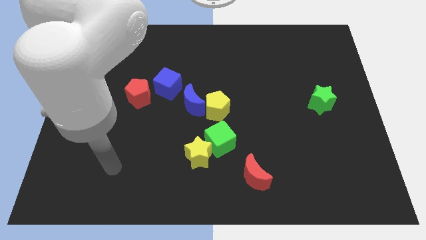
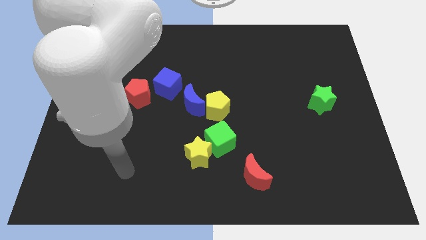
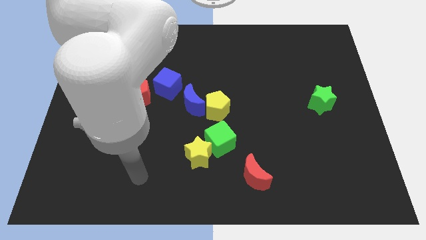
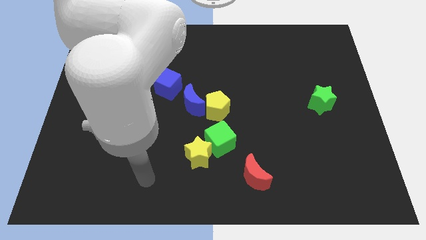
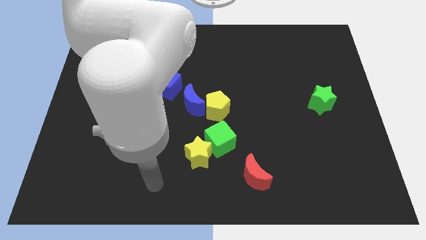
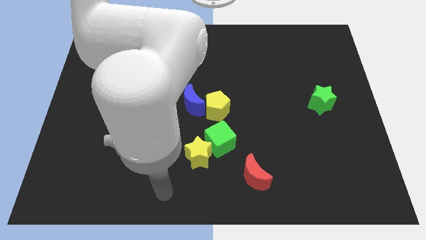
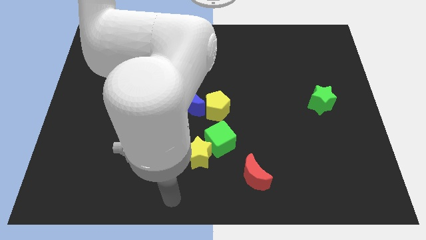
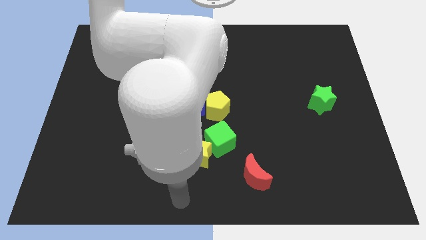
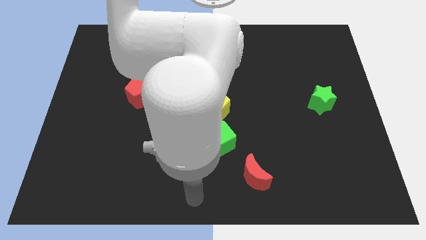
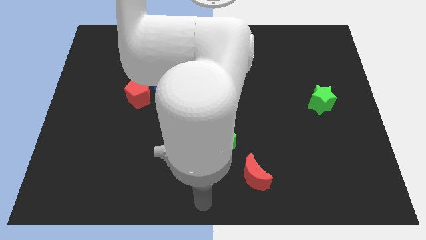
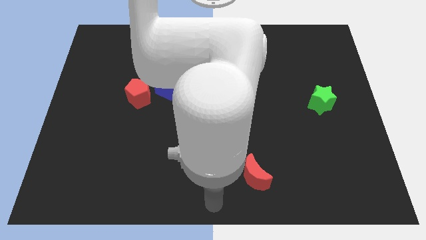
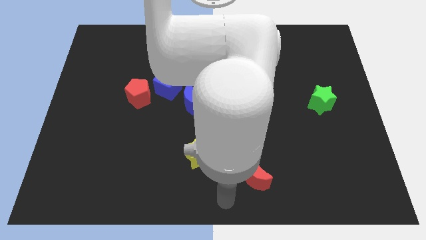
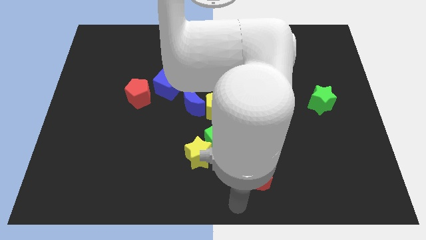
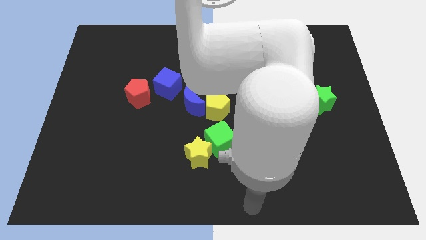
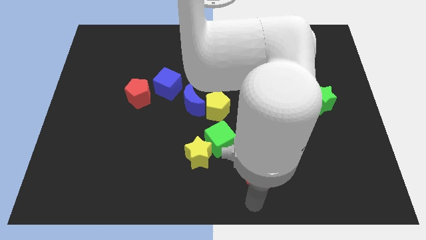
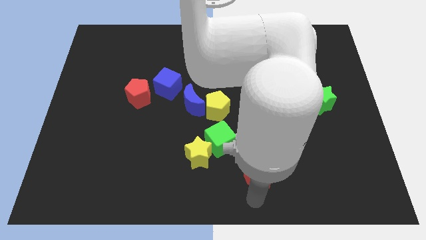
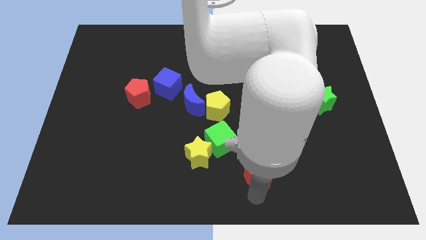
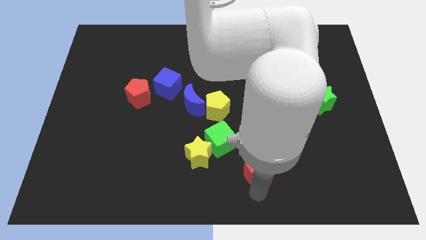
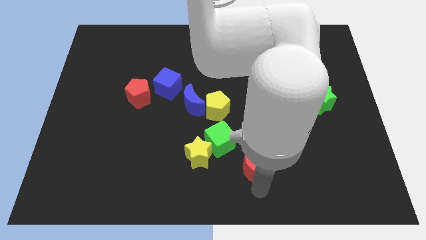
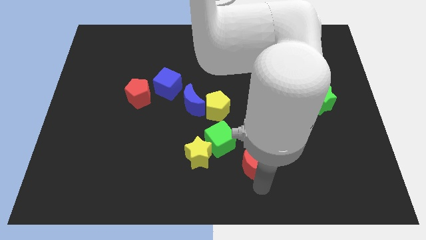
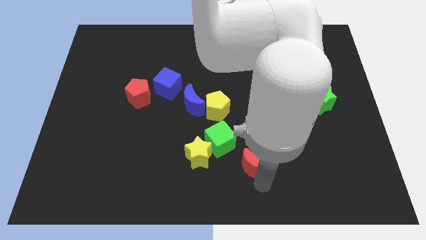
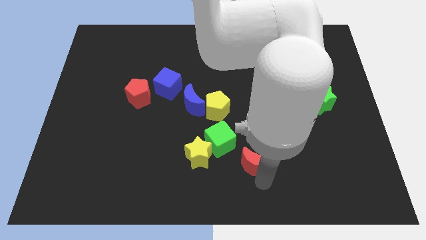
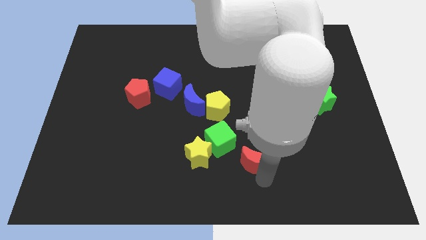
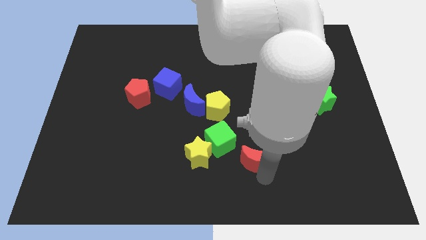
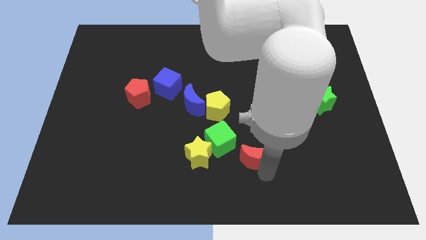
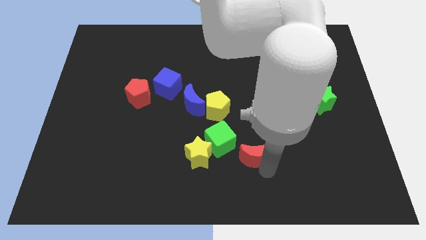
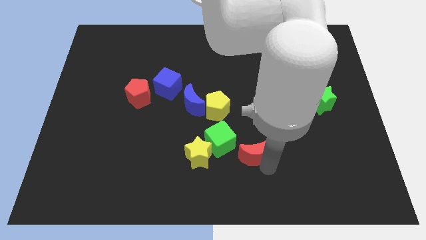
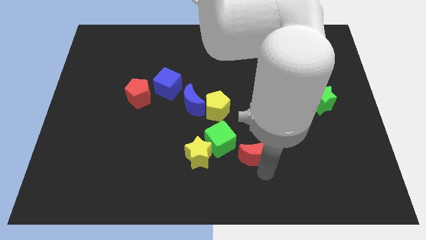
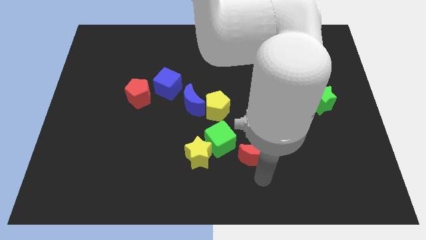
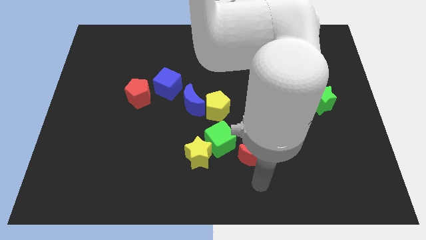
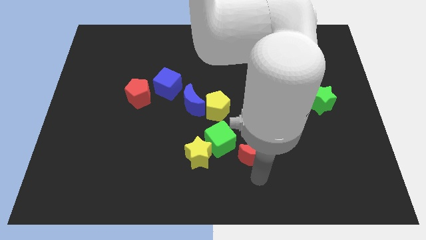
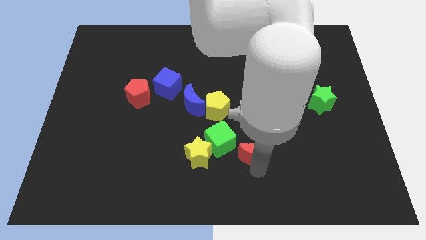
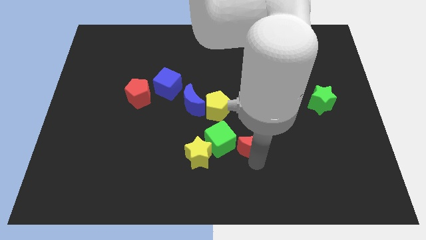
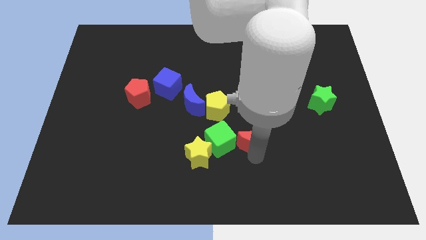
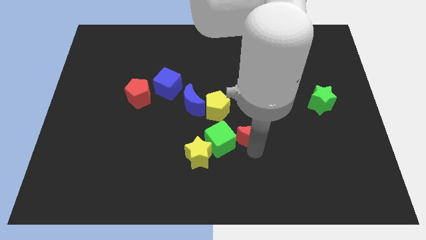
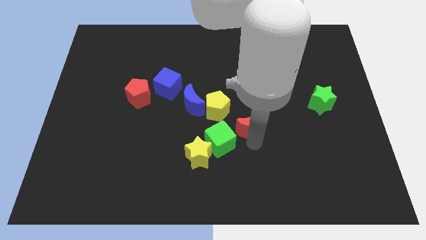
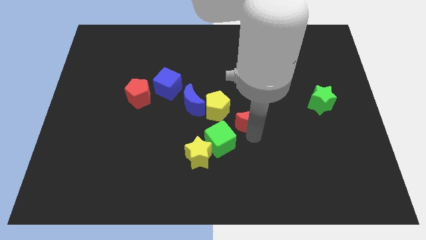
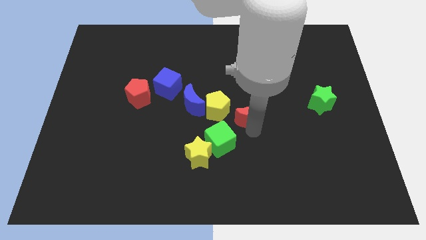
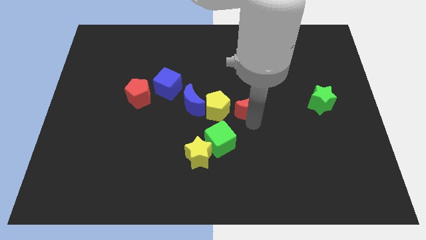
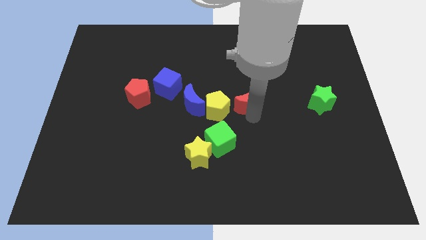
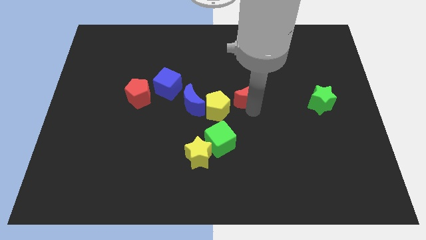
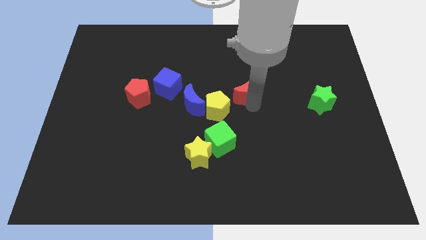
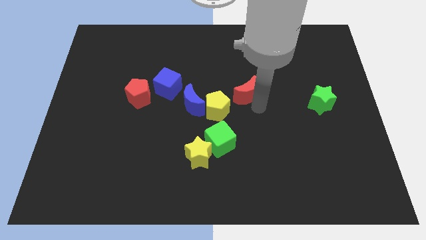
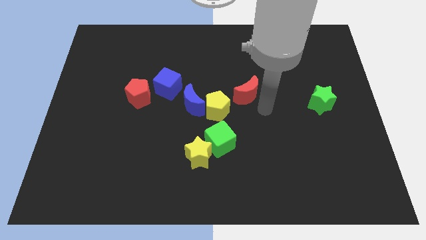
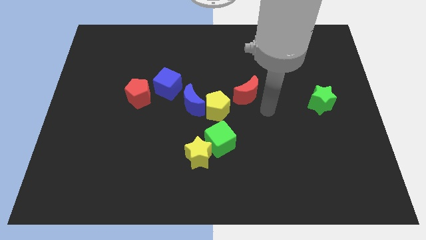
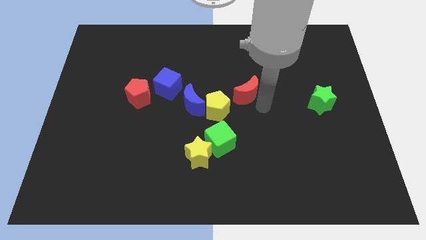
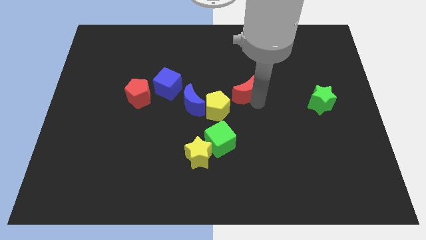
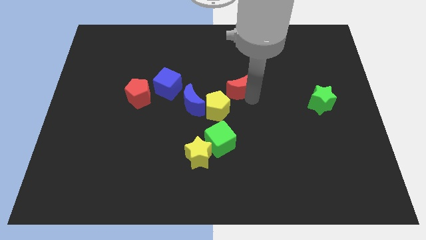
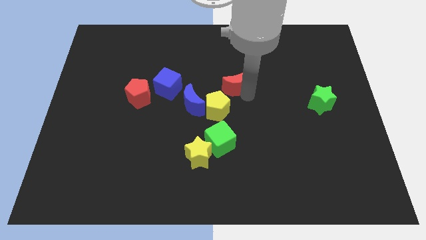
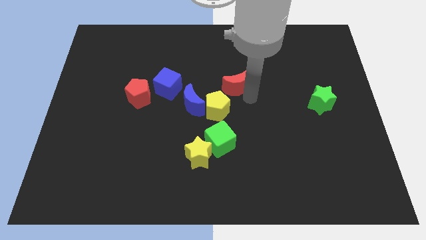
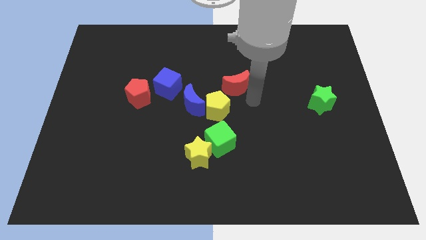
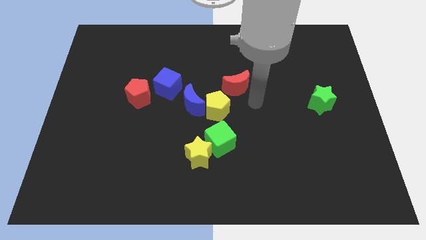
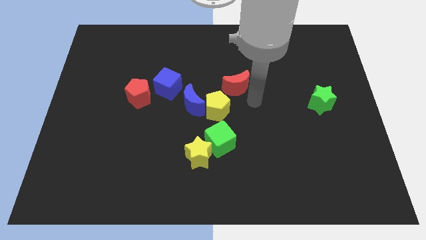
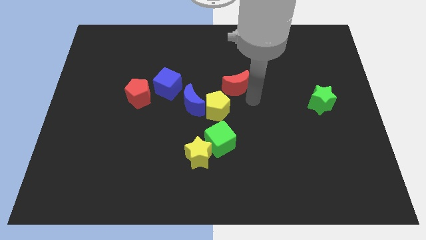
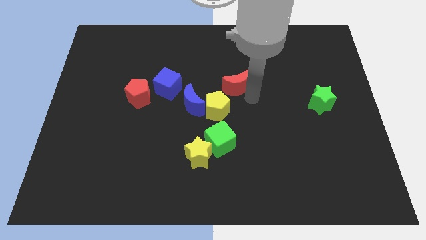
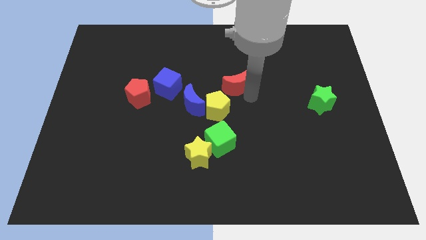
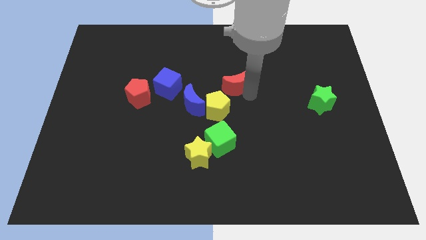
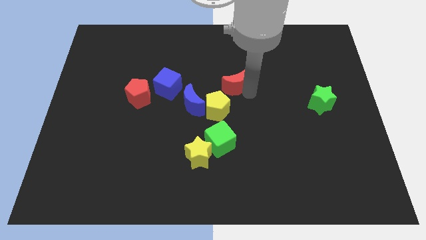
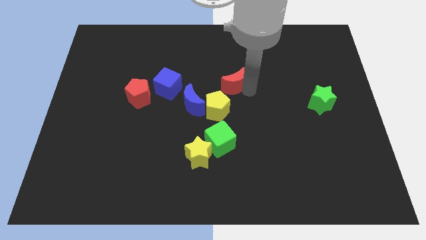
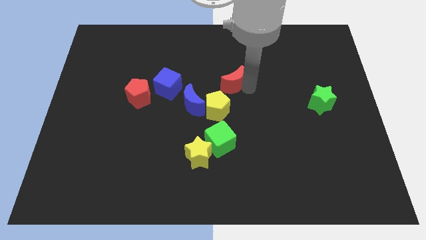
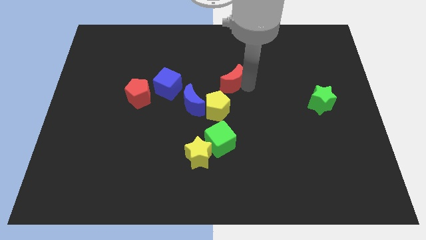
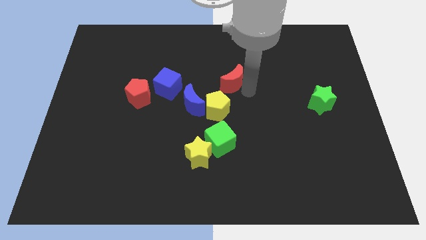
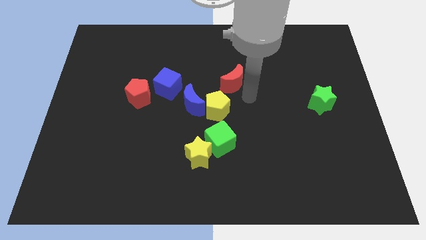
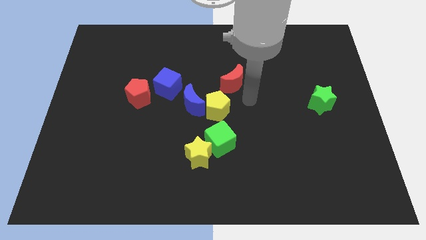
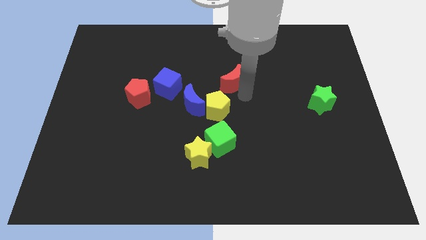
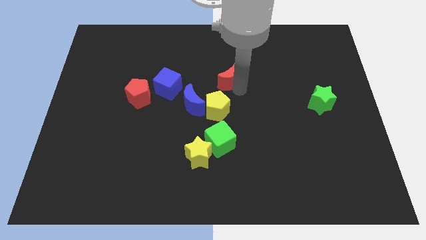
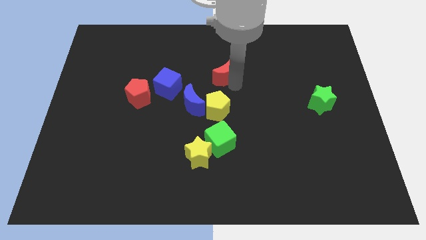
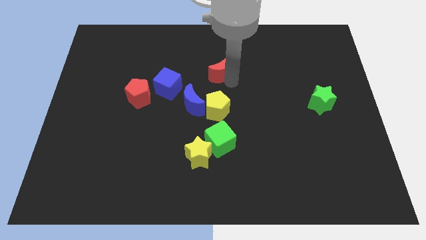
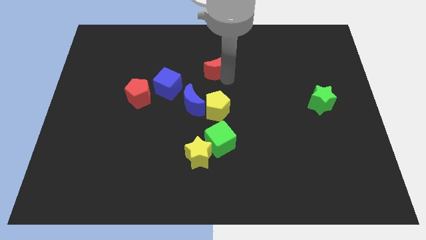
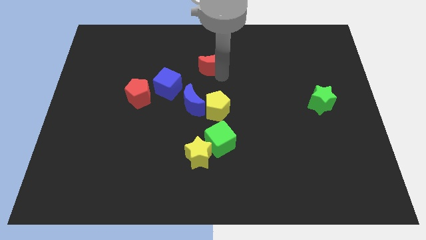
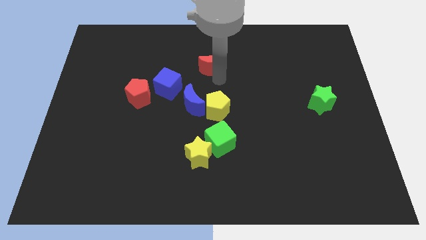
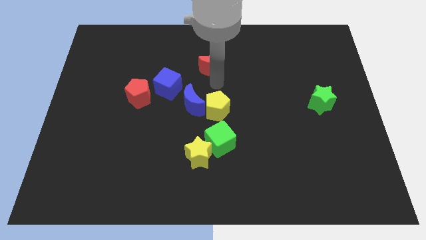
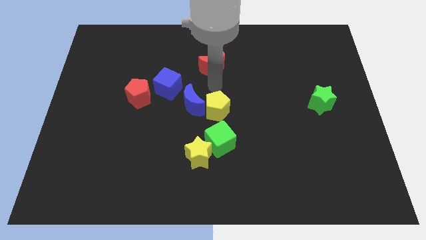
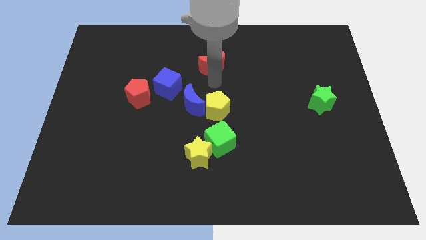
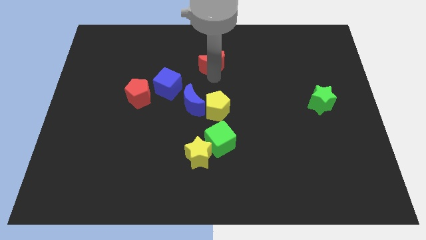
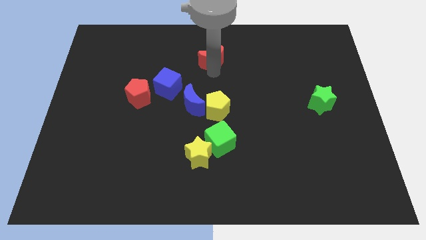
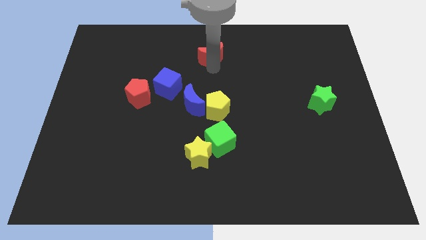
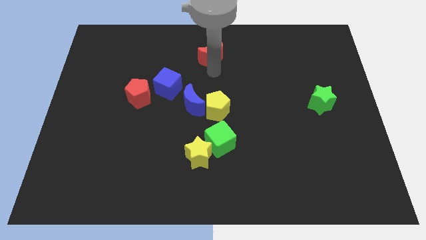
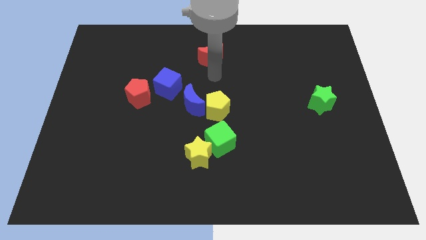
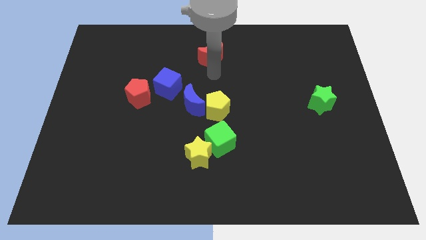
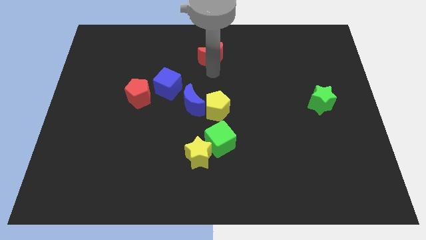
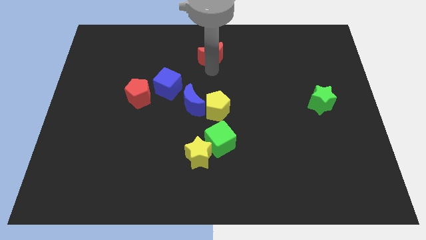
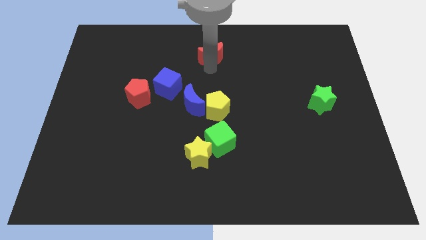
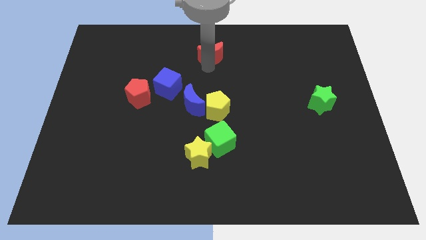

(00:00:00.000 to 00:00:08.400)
slide the red moon to the top side
